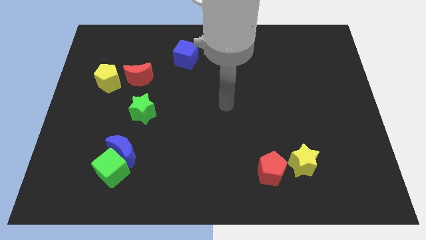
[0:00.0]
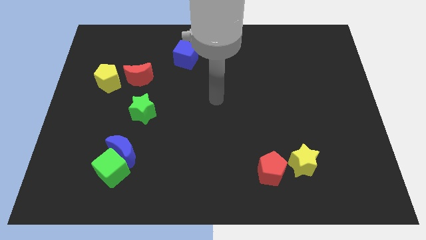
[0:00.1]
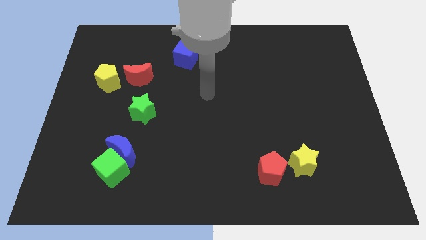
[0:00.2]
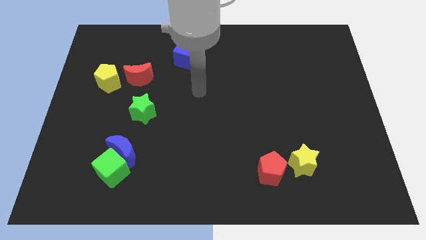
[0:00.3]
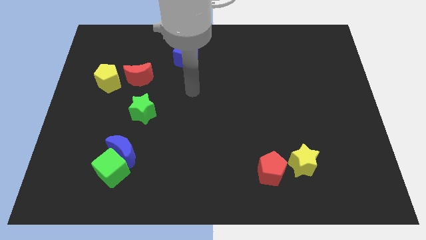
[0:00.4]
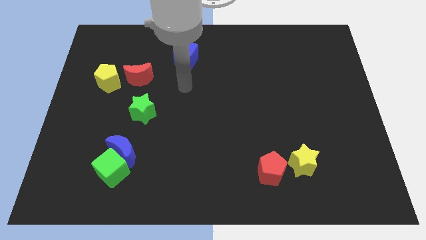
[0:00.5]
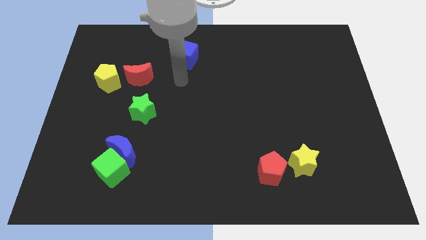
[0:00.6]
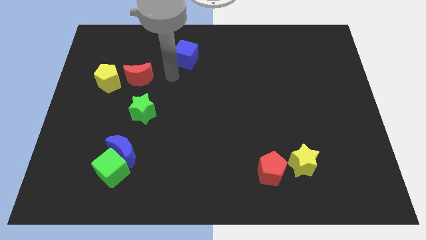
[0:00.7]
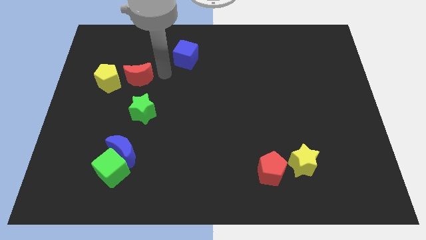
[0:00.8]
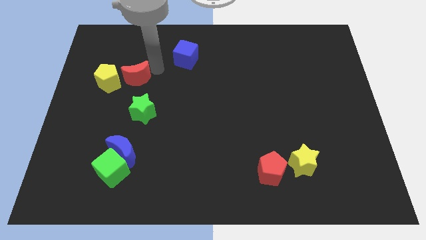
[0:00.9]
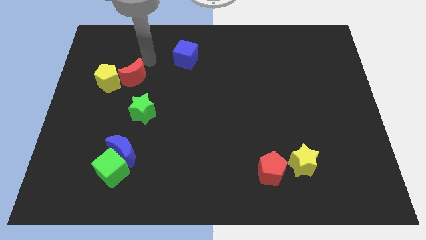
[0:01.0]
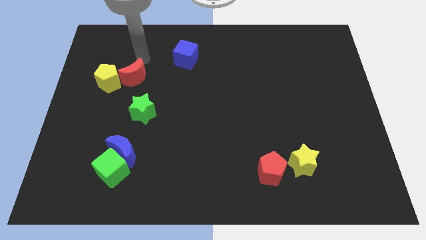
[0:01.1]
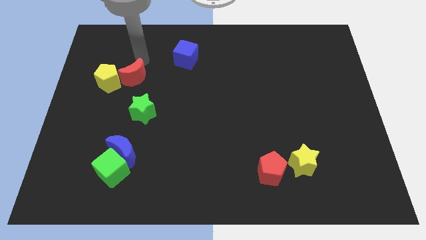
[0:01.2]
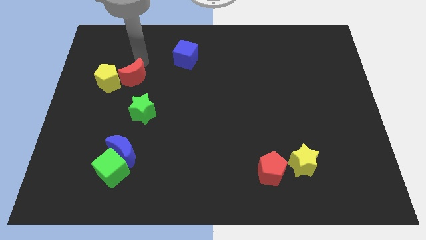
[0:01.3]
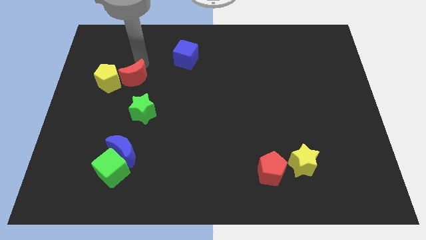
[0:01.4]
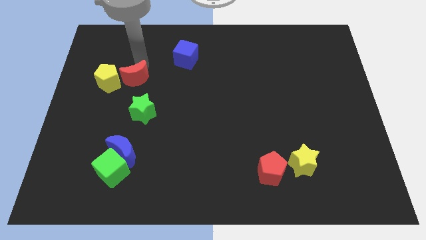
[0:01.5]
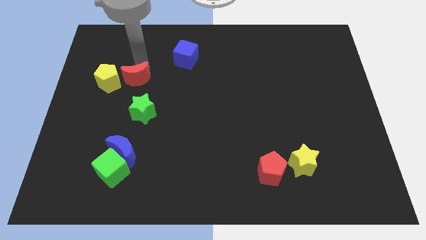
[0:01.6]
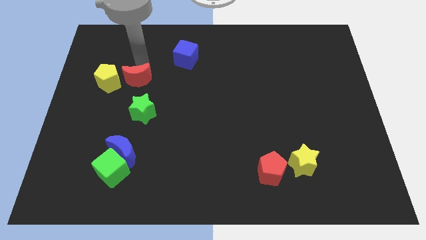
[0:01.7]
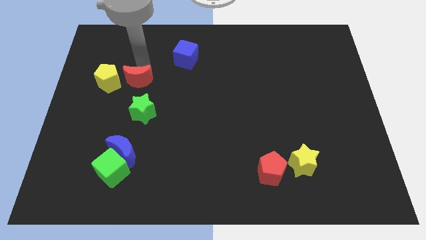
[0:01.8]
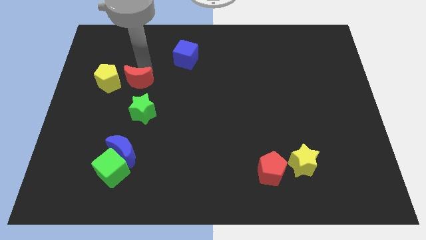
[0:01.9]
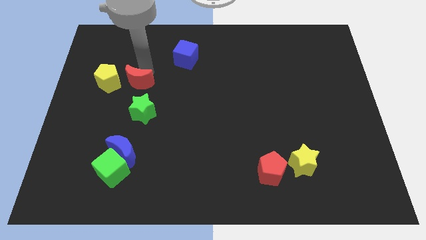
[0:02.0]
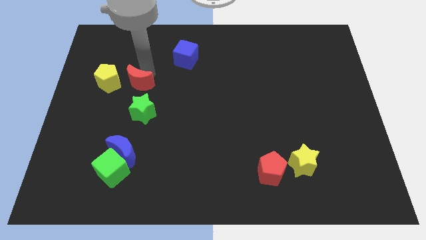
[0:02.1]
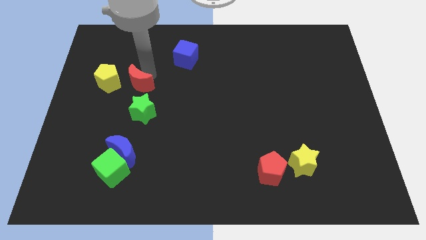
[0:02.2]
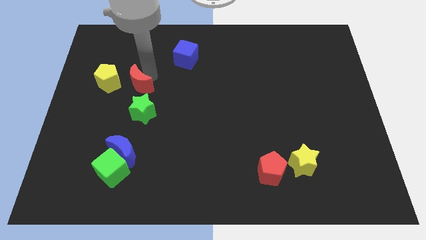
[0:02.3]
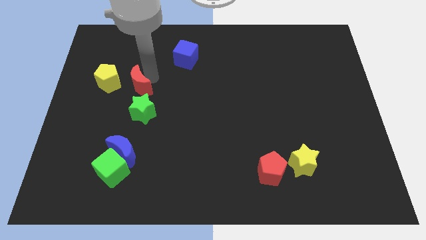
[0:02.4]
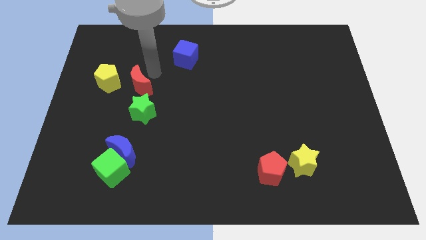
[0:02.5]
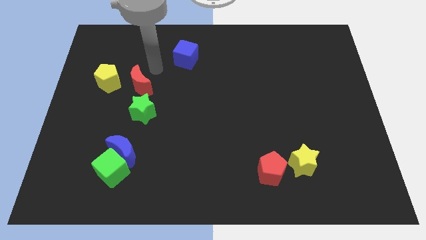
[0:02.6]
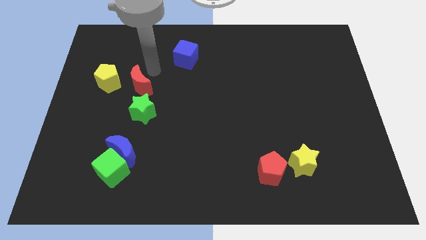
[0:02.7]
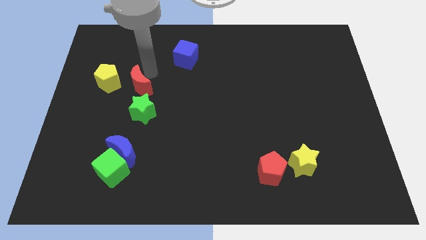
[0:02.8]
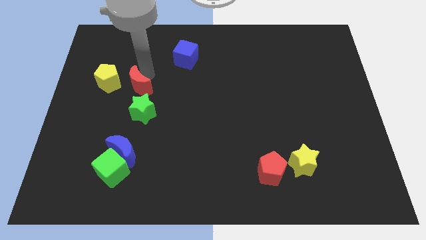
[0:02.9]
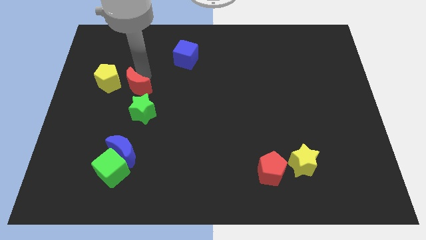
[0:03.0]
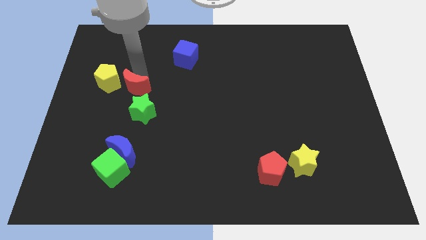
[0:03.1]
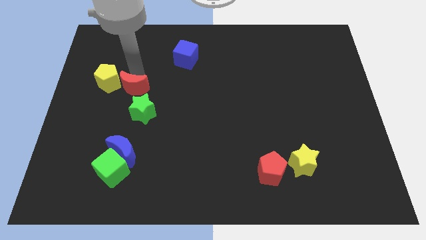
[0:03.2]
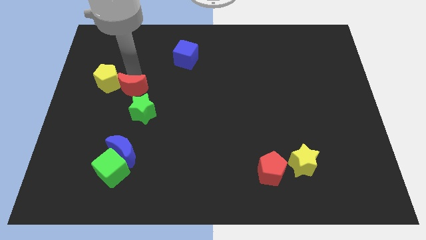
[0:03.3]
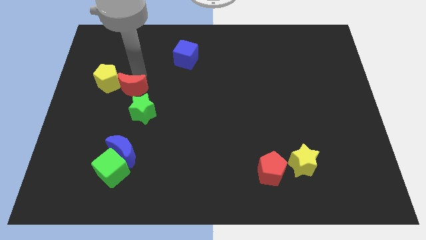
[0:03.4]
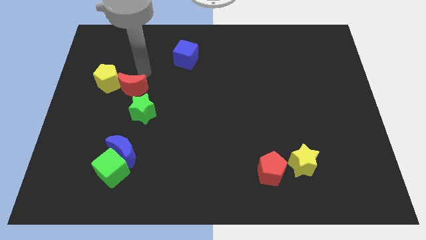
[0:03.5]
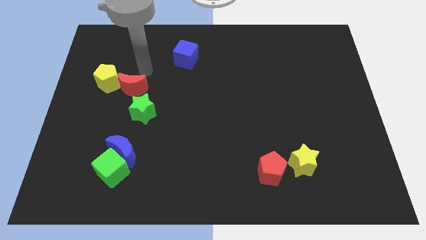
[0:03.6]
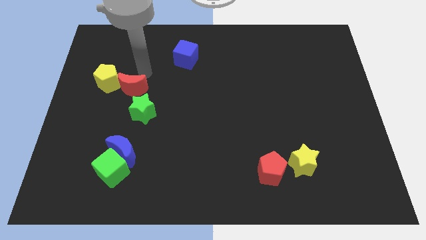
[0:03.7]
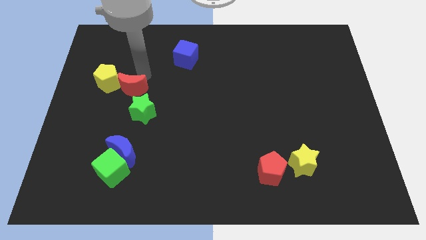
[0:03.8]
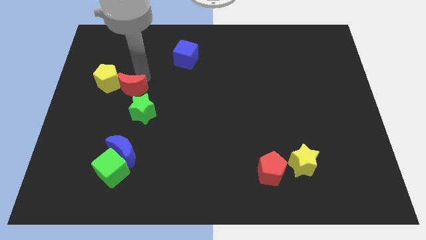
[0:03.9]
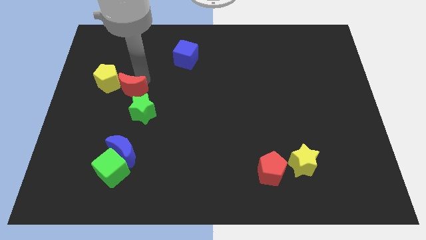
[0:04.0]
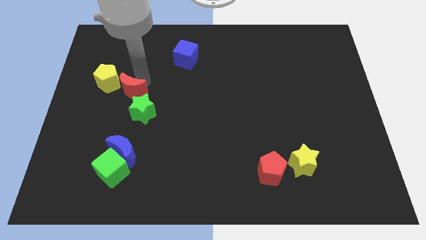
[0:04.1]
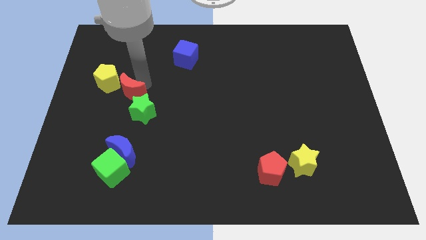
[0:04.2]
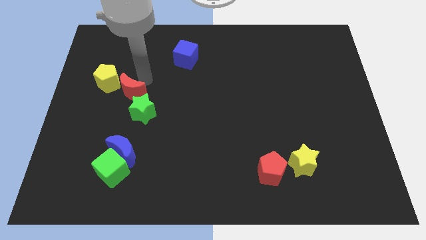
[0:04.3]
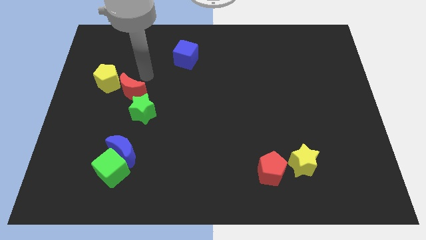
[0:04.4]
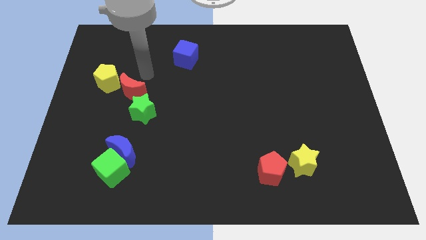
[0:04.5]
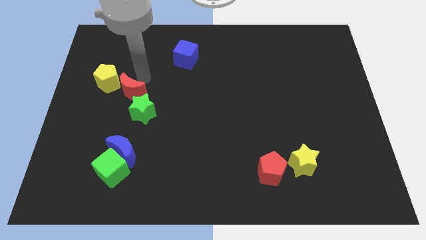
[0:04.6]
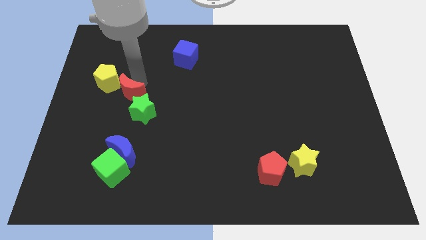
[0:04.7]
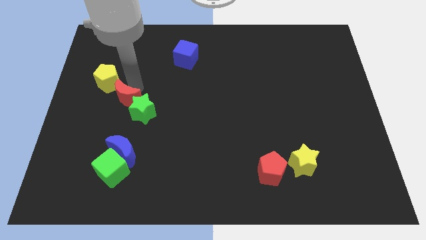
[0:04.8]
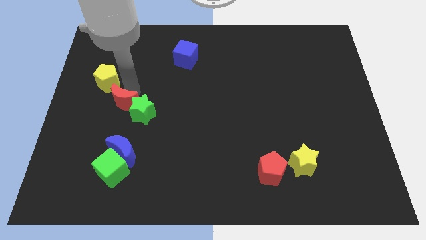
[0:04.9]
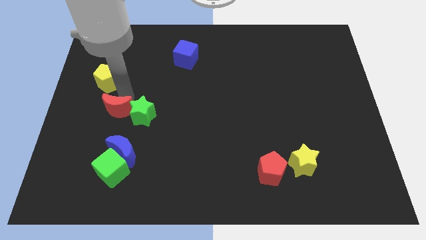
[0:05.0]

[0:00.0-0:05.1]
move the red moon above the green cube

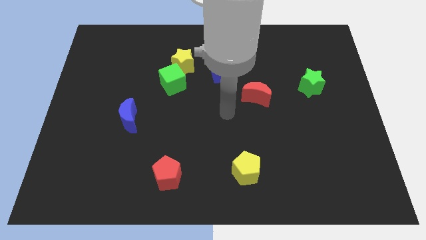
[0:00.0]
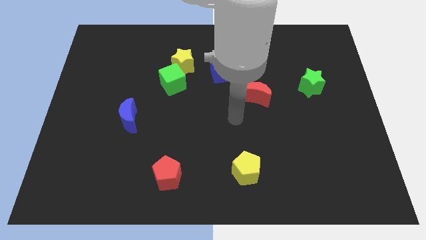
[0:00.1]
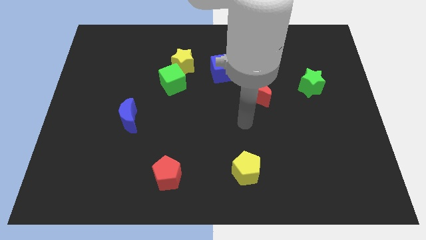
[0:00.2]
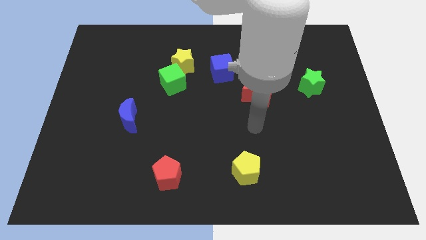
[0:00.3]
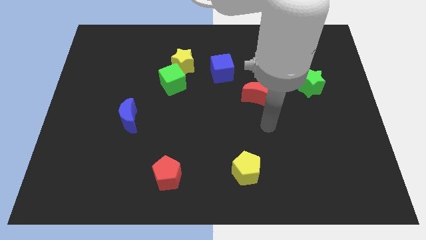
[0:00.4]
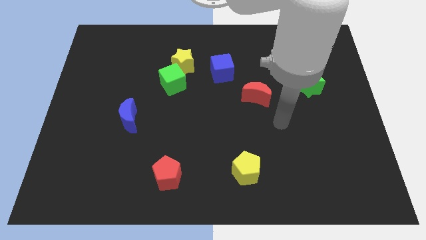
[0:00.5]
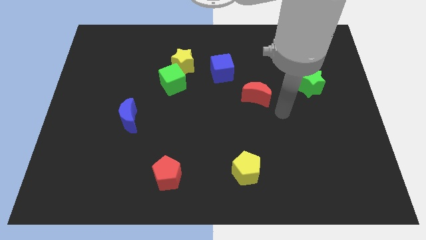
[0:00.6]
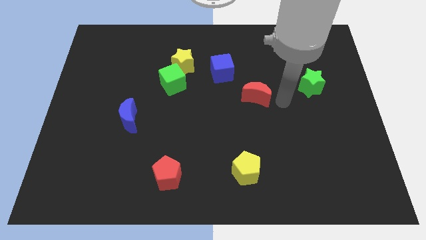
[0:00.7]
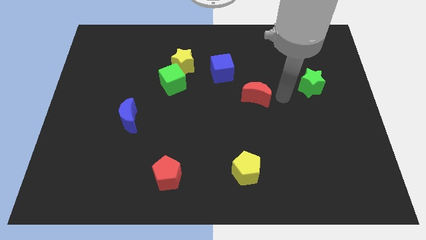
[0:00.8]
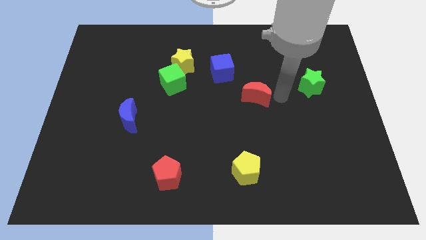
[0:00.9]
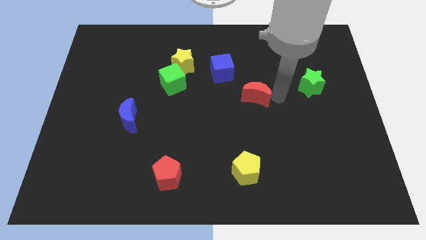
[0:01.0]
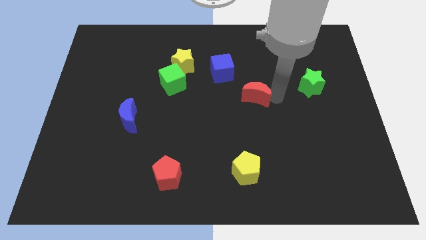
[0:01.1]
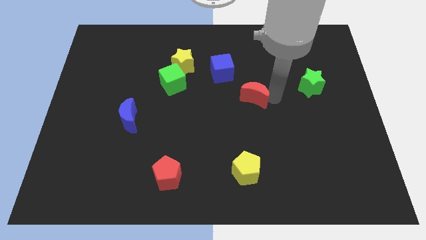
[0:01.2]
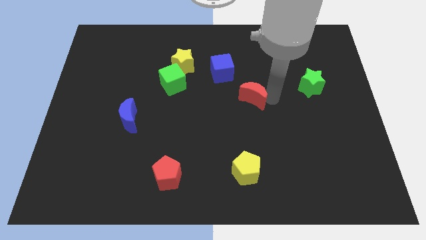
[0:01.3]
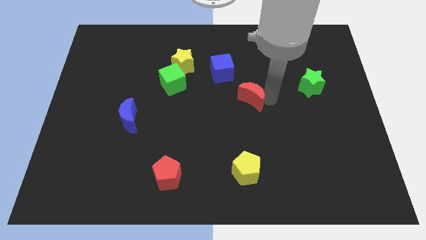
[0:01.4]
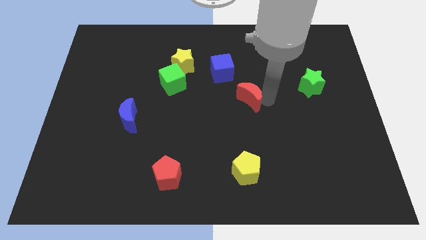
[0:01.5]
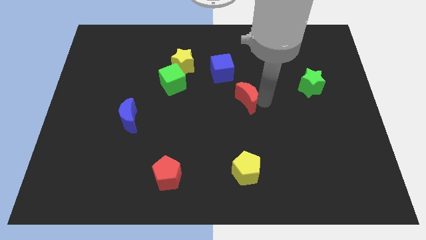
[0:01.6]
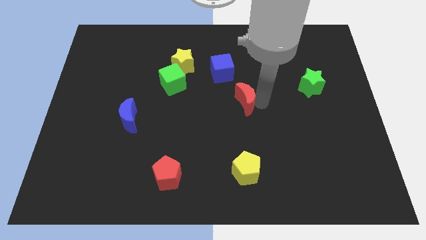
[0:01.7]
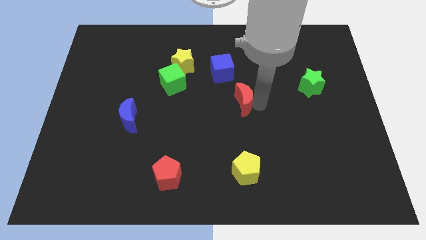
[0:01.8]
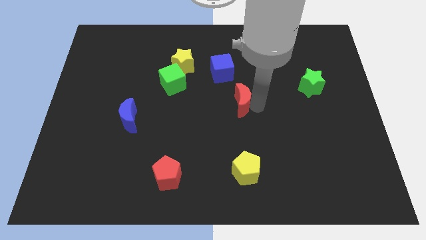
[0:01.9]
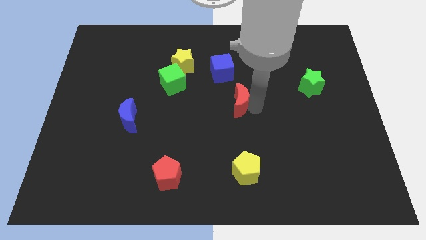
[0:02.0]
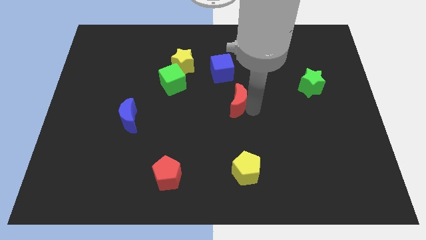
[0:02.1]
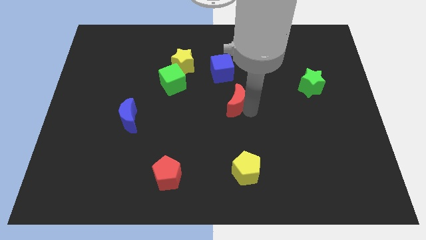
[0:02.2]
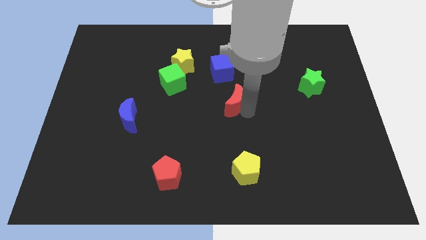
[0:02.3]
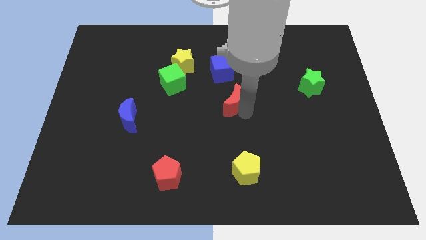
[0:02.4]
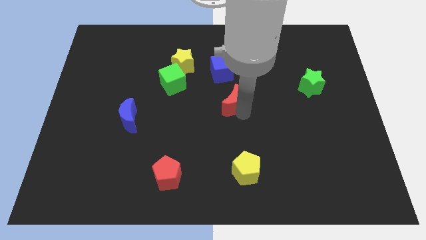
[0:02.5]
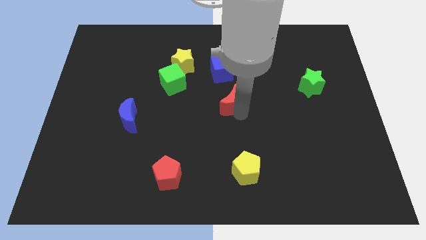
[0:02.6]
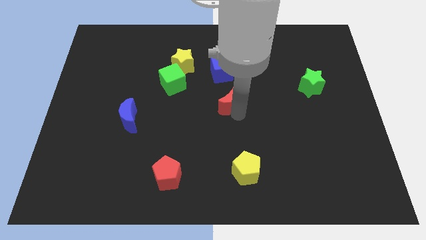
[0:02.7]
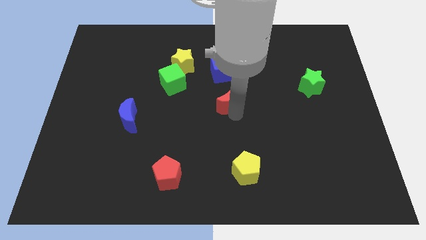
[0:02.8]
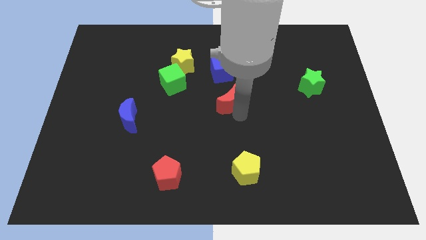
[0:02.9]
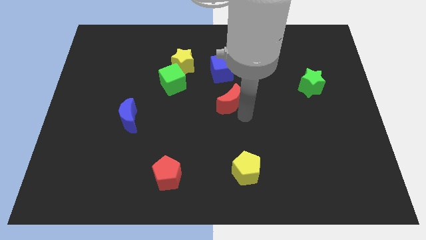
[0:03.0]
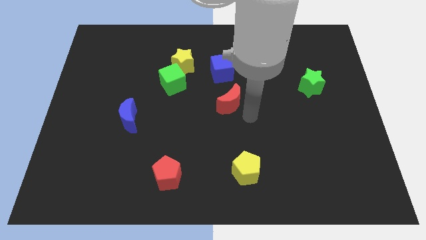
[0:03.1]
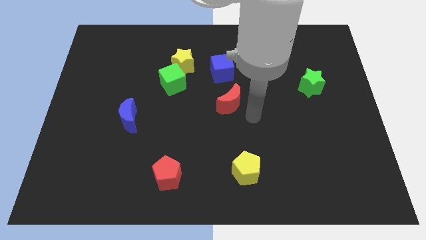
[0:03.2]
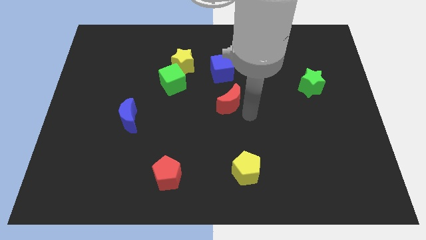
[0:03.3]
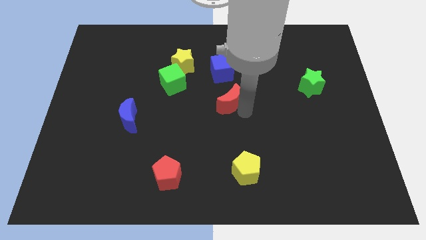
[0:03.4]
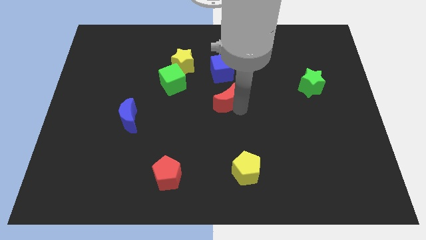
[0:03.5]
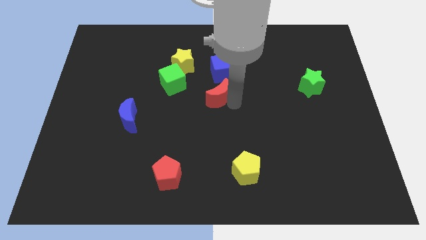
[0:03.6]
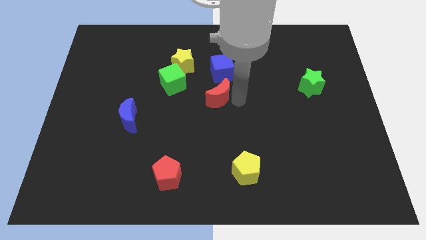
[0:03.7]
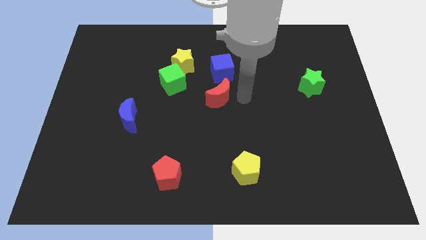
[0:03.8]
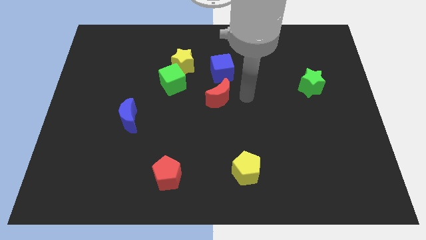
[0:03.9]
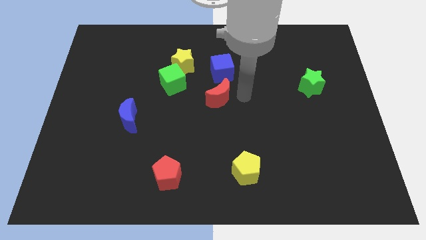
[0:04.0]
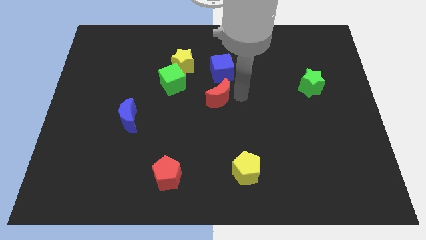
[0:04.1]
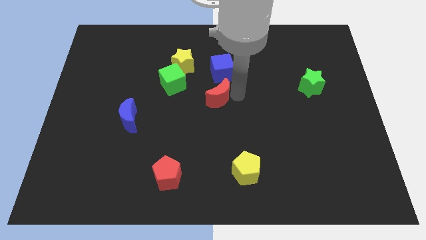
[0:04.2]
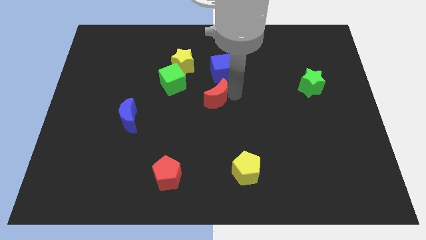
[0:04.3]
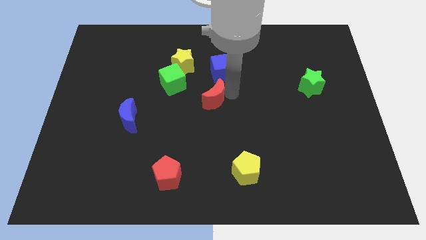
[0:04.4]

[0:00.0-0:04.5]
slide the red moon to the bottom right of the green cube
